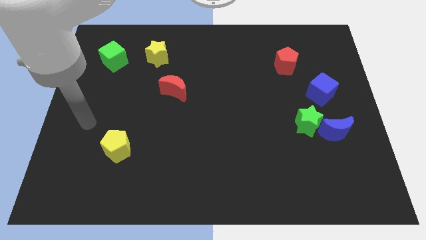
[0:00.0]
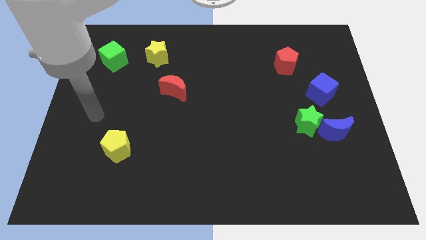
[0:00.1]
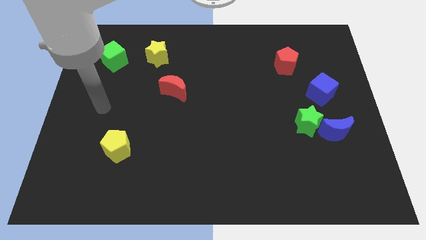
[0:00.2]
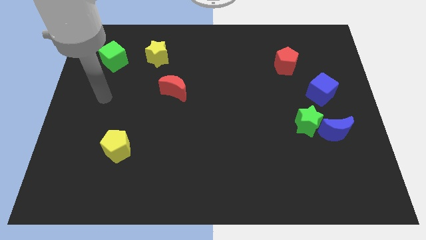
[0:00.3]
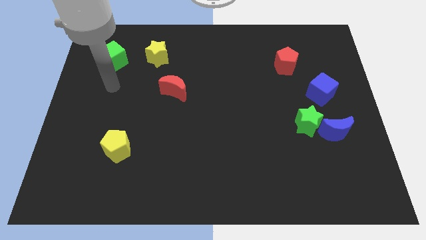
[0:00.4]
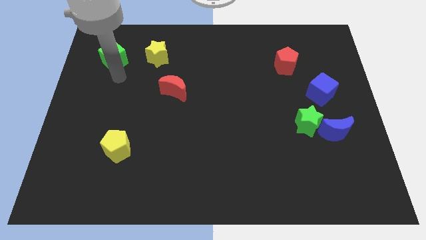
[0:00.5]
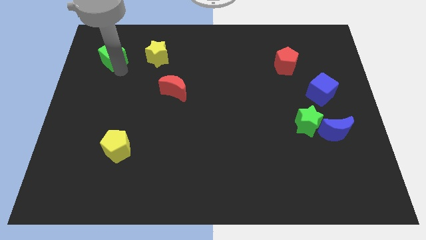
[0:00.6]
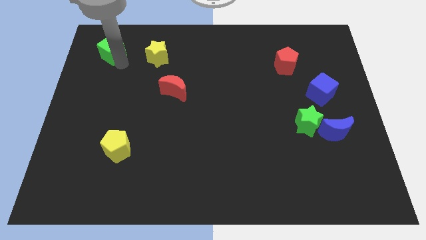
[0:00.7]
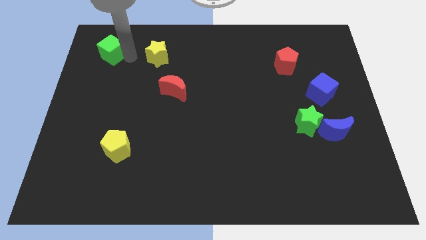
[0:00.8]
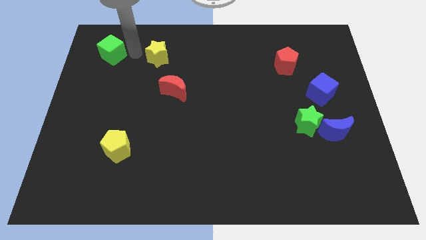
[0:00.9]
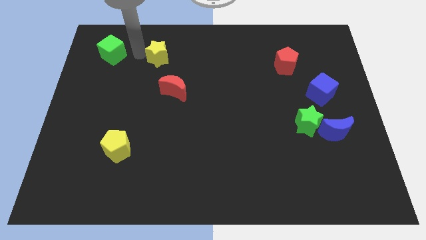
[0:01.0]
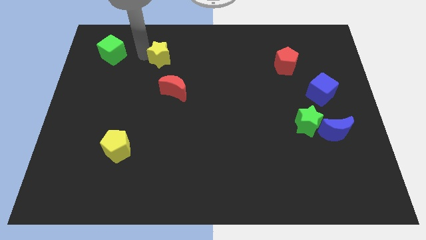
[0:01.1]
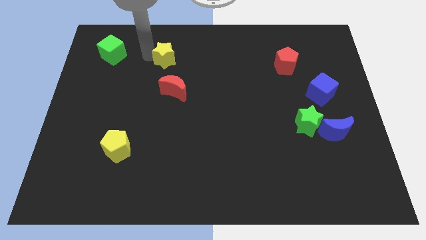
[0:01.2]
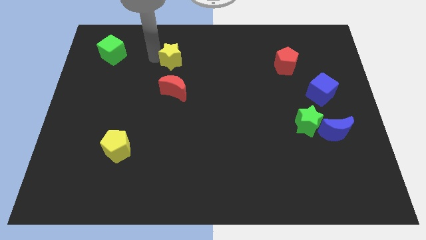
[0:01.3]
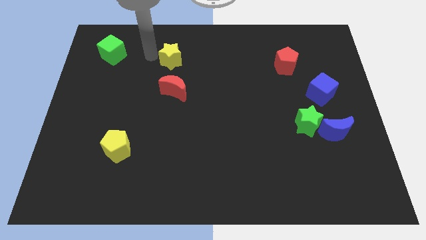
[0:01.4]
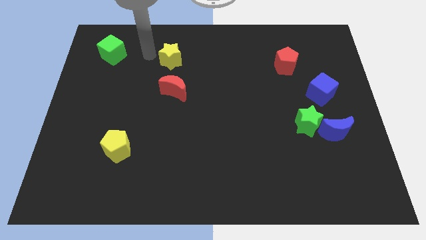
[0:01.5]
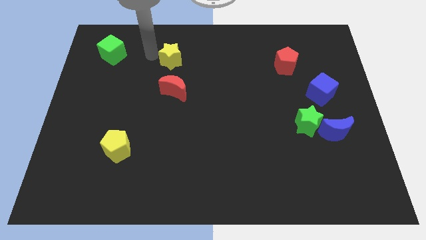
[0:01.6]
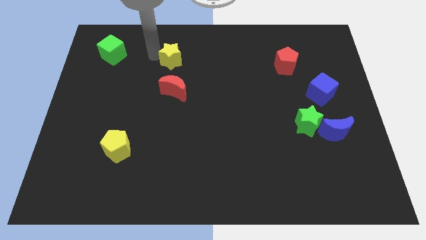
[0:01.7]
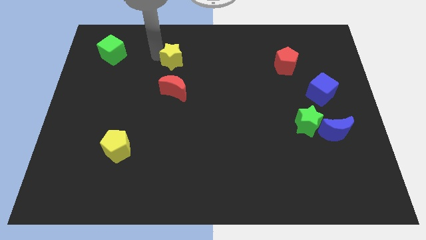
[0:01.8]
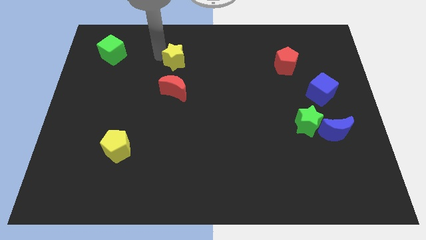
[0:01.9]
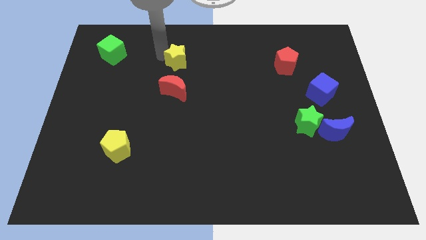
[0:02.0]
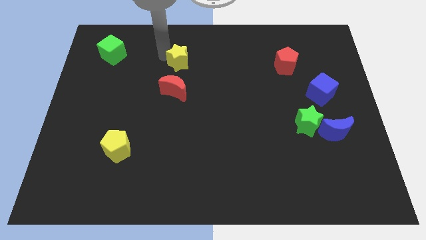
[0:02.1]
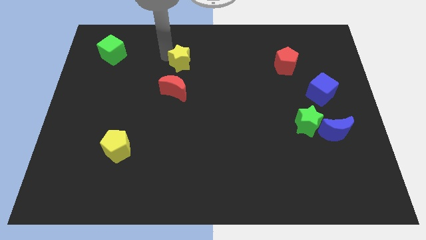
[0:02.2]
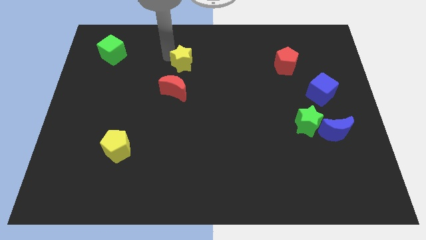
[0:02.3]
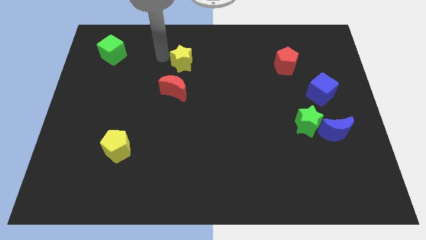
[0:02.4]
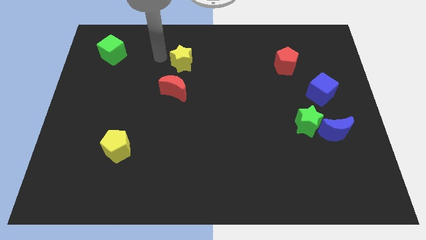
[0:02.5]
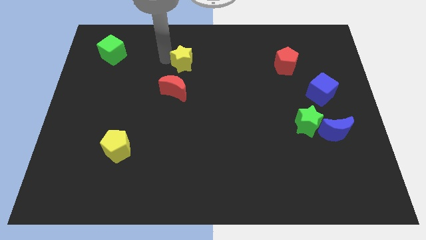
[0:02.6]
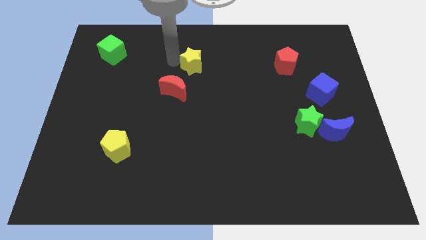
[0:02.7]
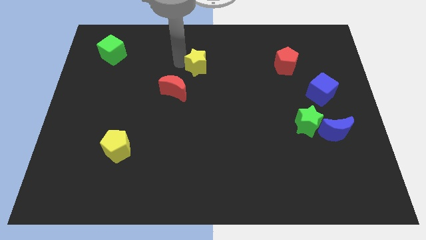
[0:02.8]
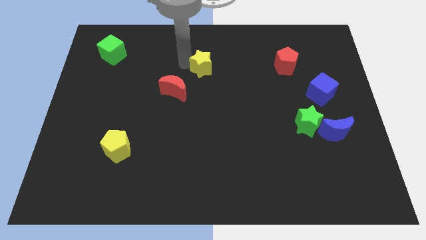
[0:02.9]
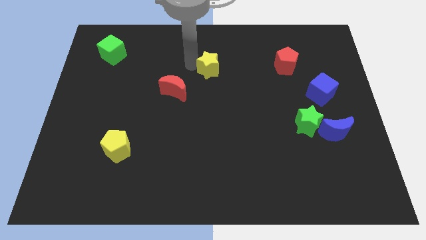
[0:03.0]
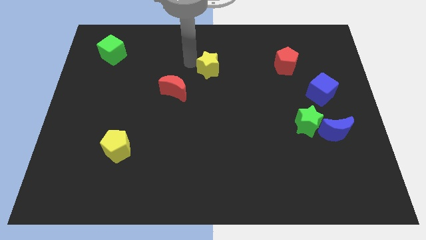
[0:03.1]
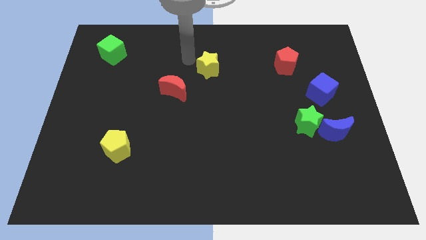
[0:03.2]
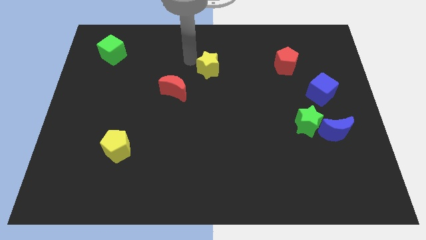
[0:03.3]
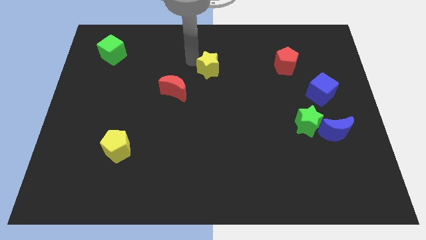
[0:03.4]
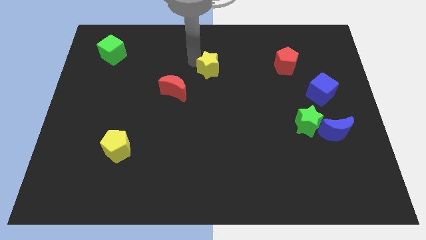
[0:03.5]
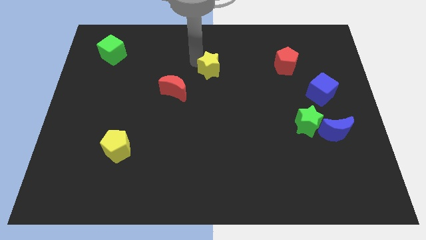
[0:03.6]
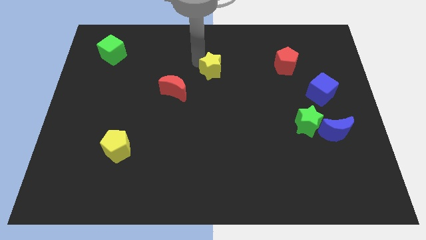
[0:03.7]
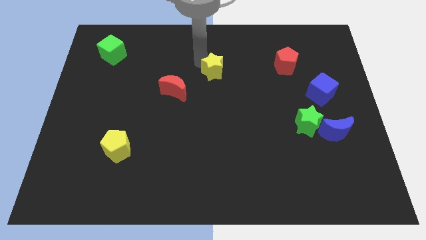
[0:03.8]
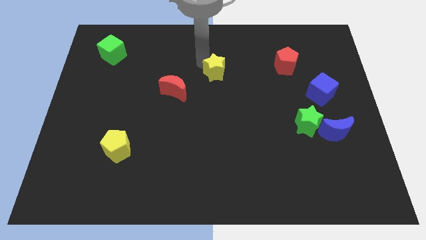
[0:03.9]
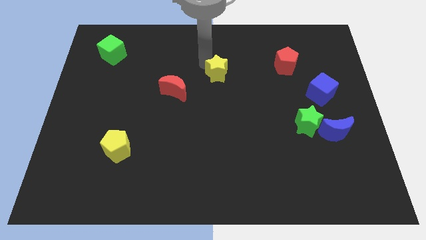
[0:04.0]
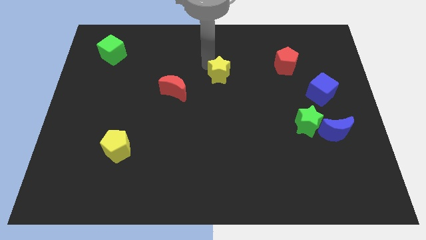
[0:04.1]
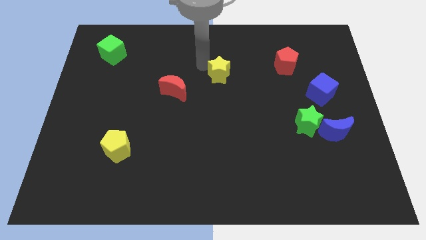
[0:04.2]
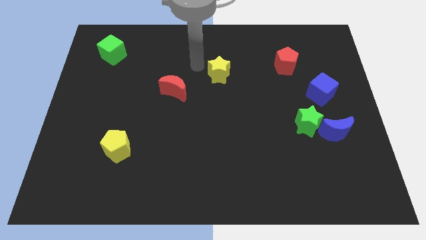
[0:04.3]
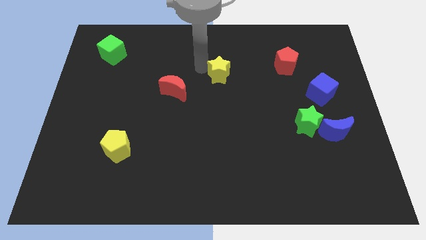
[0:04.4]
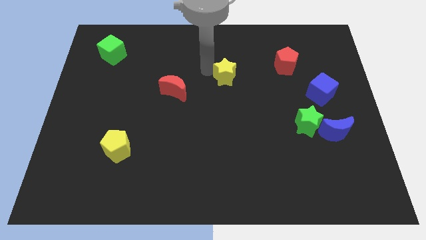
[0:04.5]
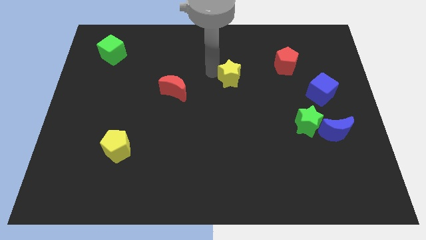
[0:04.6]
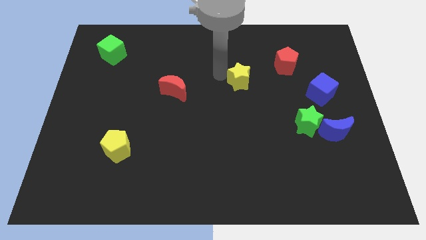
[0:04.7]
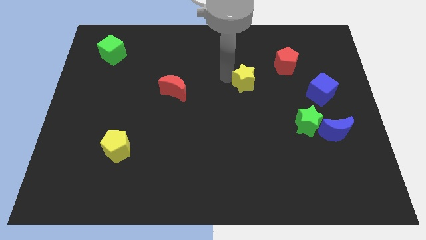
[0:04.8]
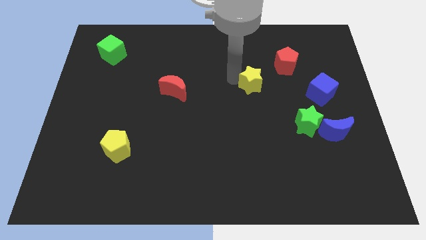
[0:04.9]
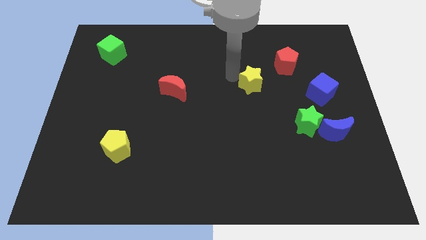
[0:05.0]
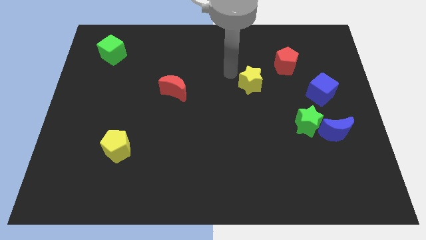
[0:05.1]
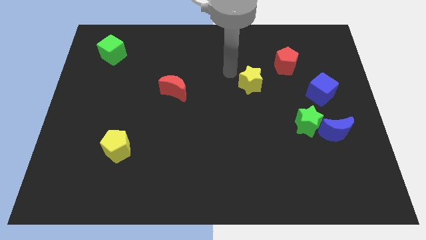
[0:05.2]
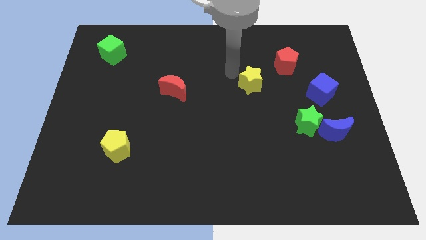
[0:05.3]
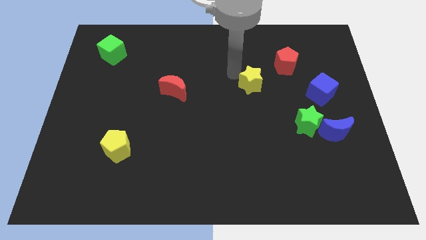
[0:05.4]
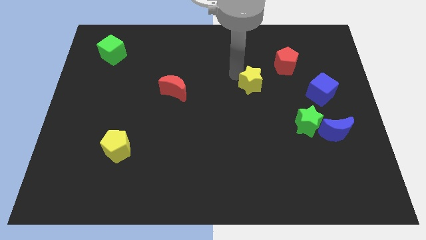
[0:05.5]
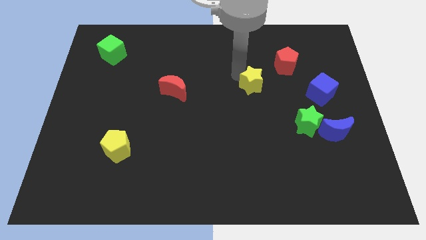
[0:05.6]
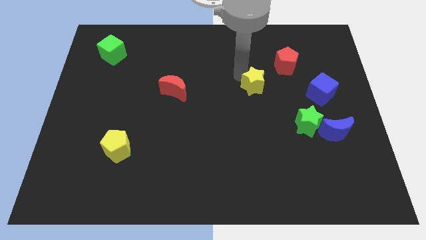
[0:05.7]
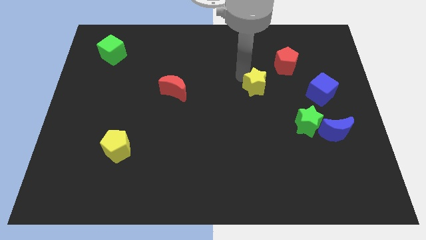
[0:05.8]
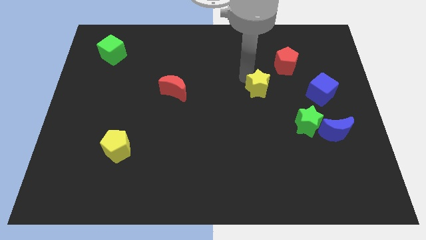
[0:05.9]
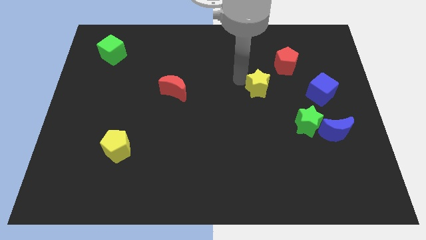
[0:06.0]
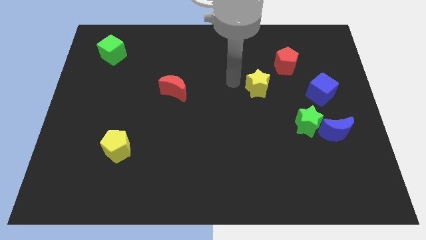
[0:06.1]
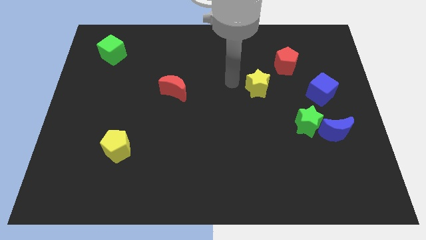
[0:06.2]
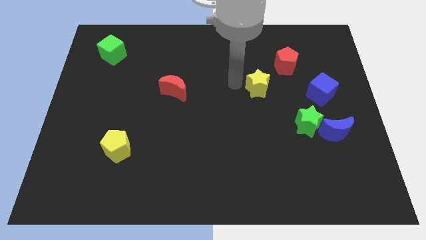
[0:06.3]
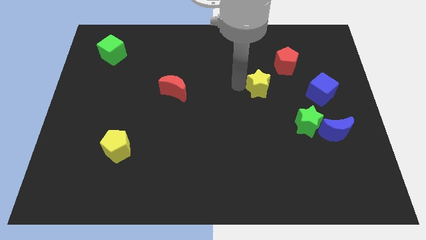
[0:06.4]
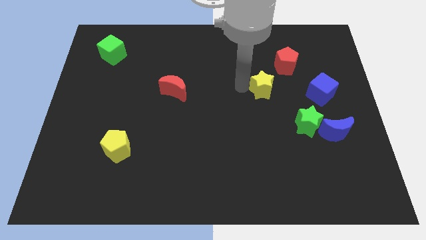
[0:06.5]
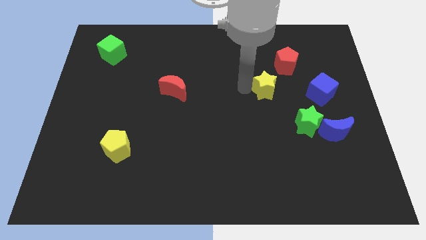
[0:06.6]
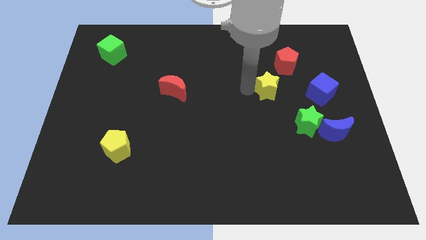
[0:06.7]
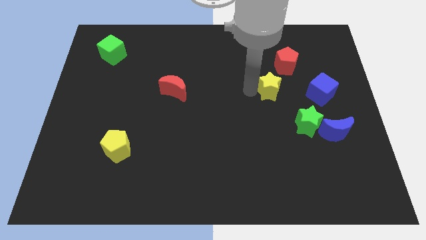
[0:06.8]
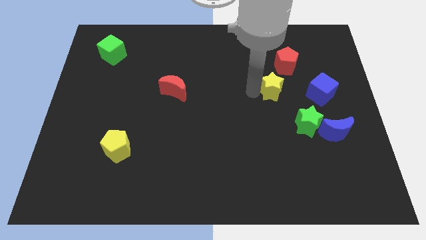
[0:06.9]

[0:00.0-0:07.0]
slide the yellow star to the bottom side of the red pentagon
